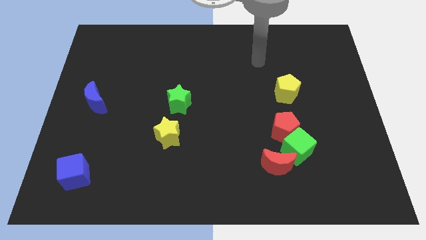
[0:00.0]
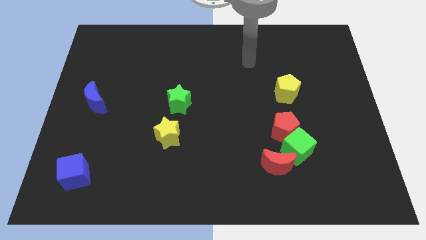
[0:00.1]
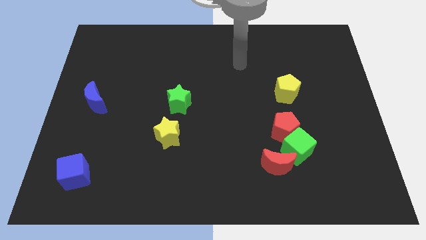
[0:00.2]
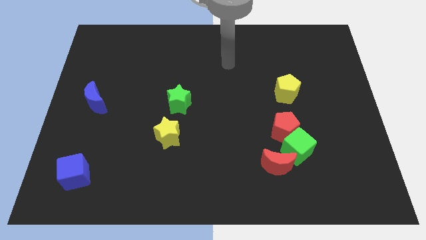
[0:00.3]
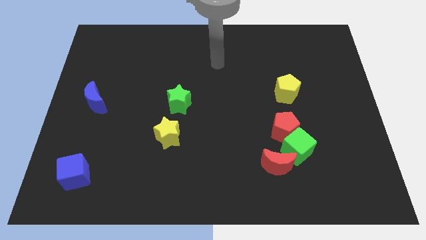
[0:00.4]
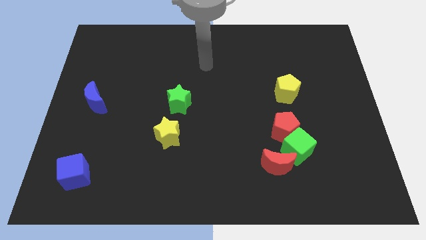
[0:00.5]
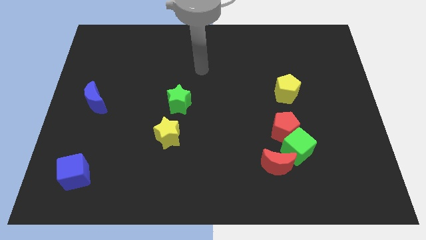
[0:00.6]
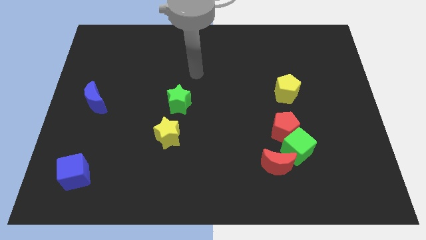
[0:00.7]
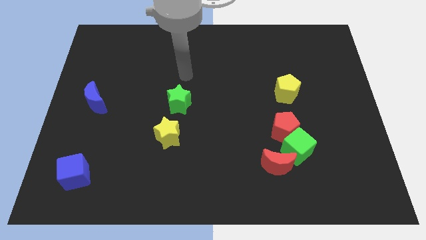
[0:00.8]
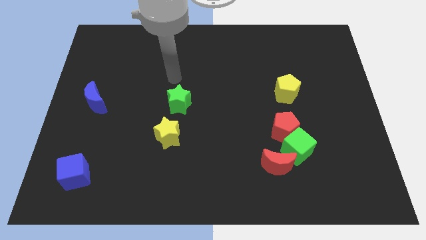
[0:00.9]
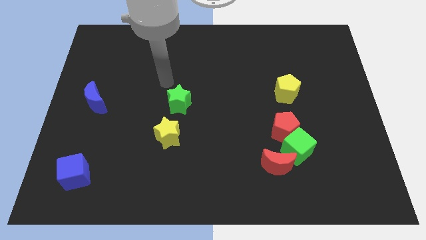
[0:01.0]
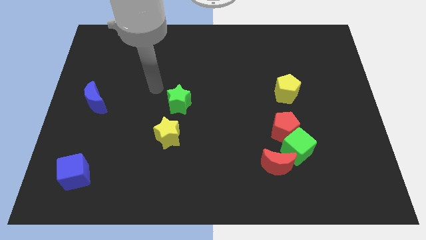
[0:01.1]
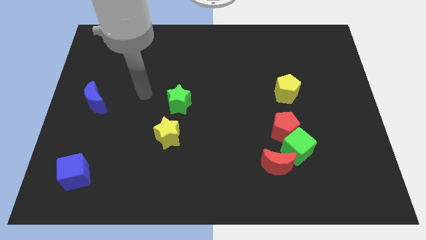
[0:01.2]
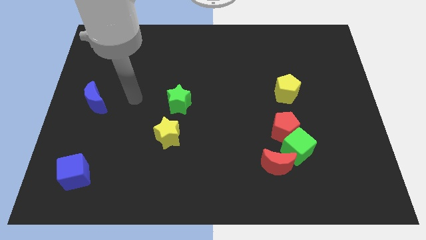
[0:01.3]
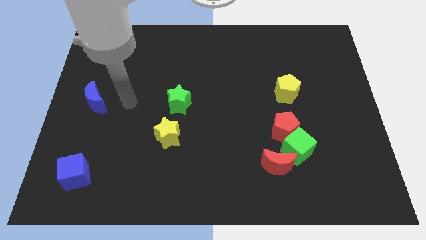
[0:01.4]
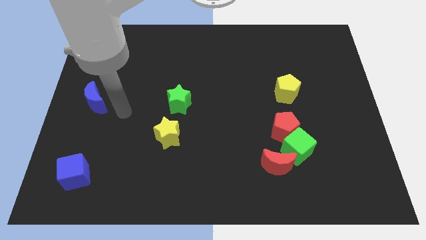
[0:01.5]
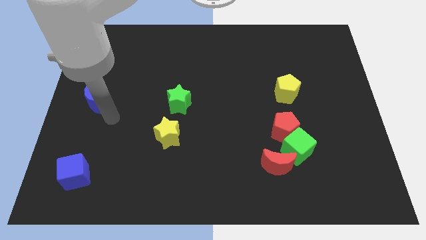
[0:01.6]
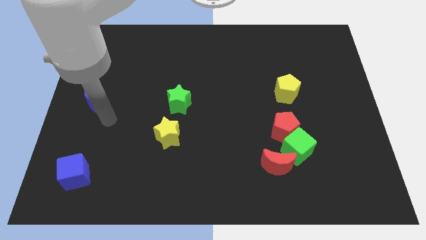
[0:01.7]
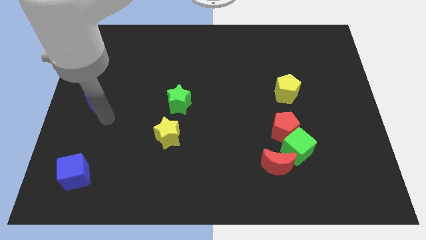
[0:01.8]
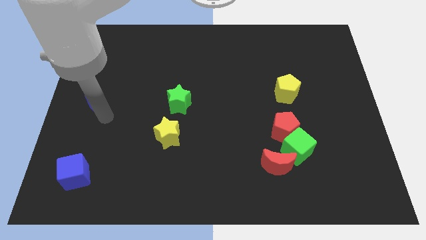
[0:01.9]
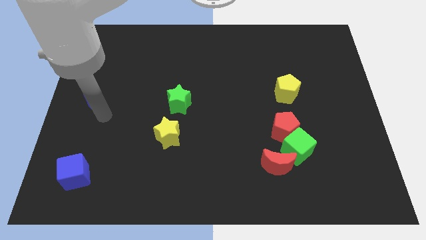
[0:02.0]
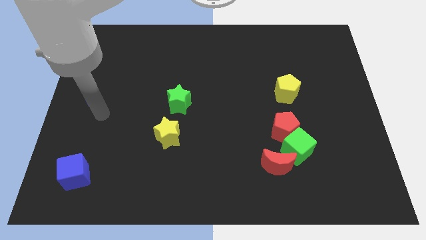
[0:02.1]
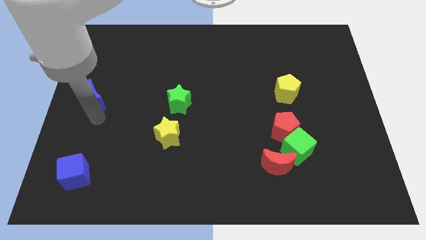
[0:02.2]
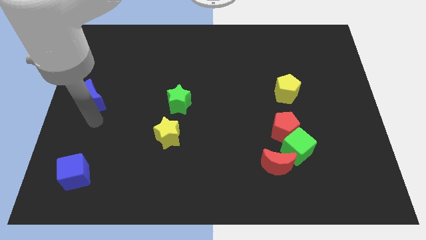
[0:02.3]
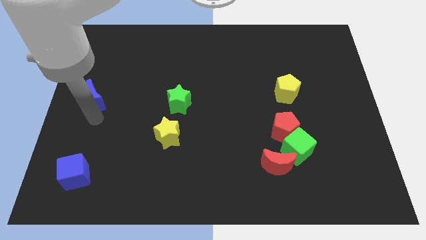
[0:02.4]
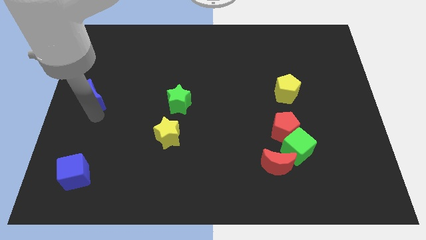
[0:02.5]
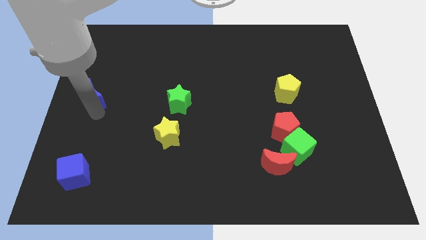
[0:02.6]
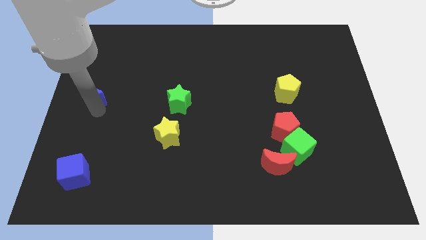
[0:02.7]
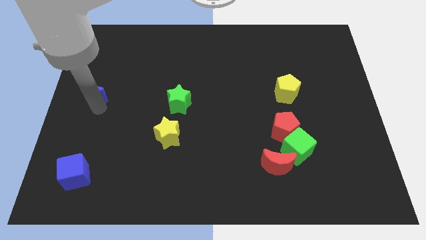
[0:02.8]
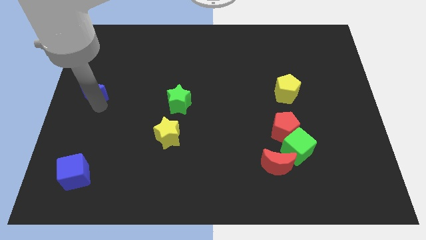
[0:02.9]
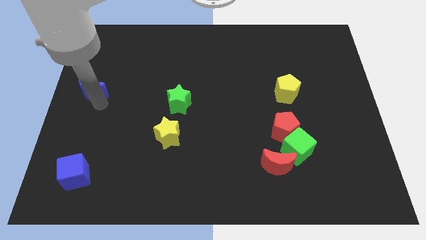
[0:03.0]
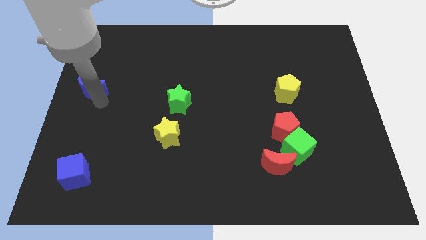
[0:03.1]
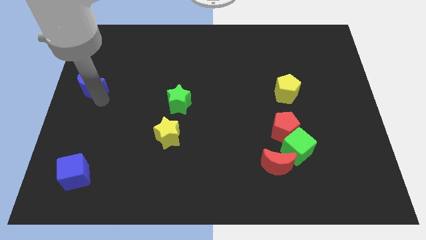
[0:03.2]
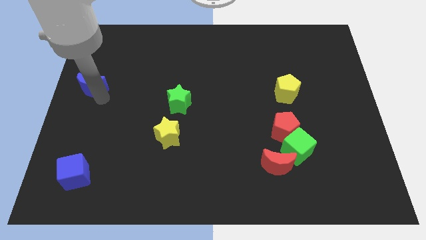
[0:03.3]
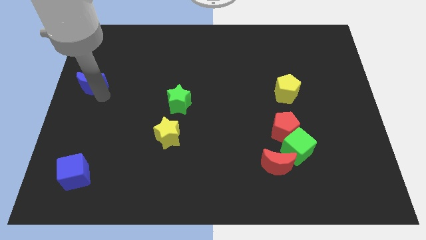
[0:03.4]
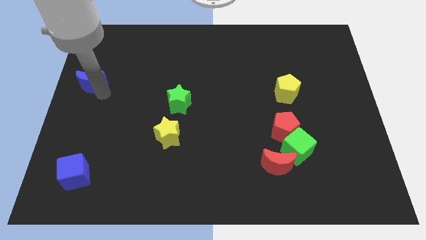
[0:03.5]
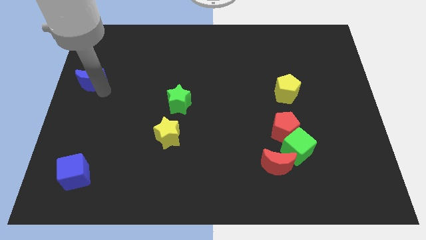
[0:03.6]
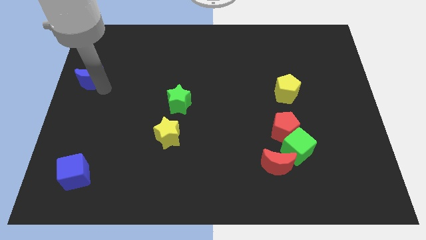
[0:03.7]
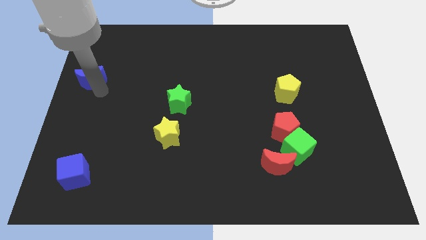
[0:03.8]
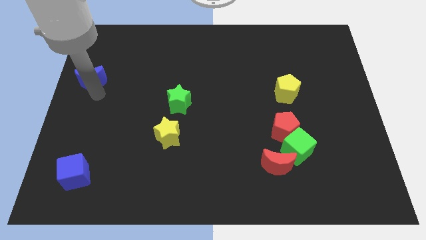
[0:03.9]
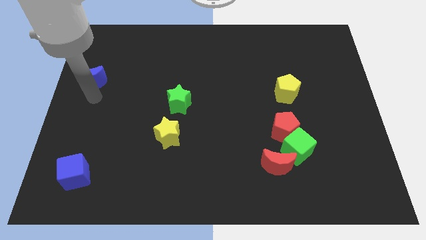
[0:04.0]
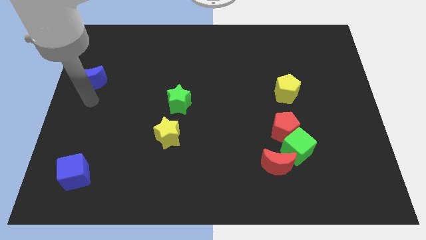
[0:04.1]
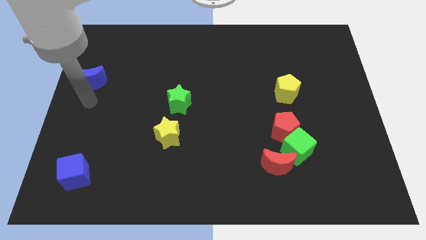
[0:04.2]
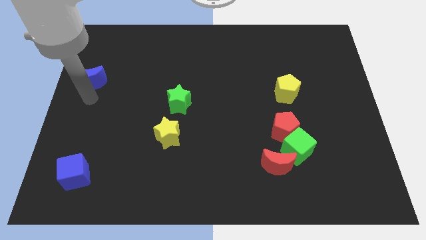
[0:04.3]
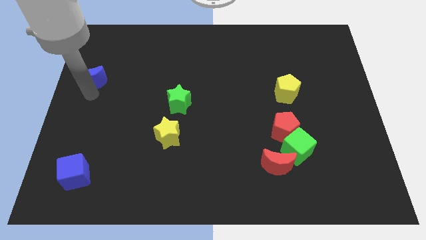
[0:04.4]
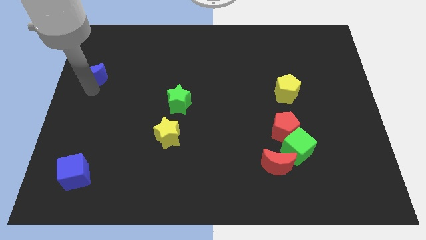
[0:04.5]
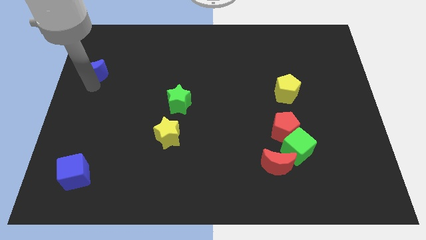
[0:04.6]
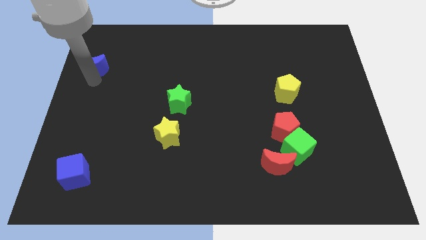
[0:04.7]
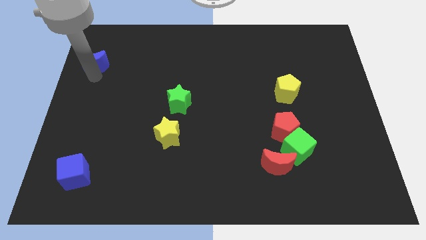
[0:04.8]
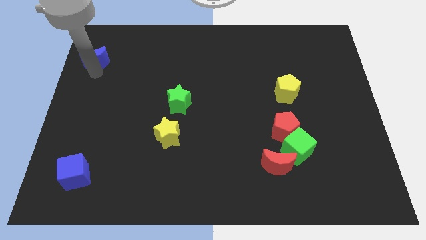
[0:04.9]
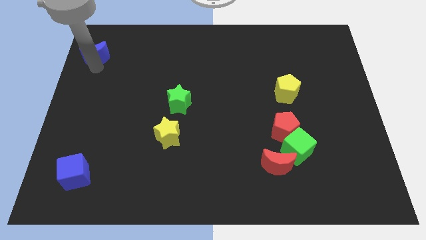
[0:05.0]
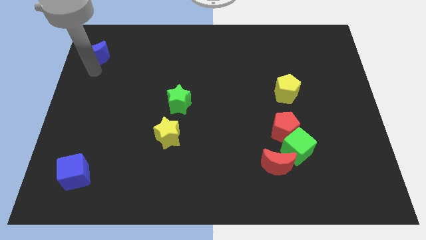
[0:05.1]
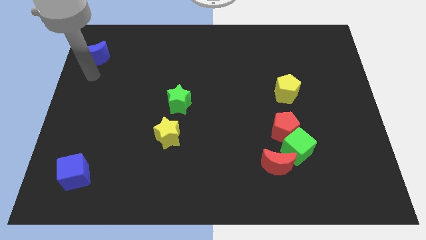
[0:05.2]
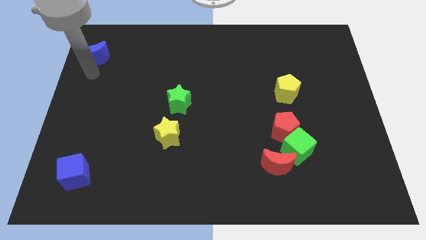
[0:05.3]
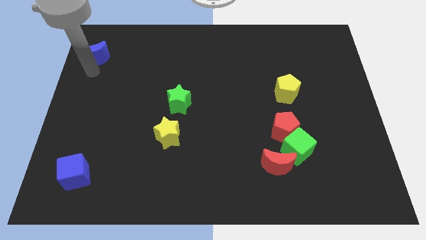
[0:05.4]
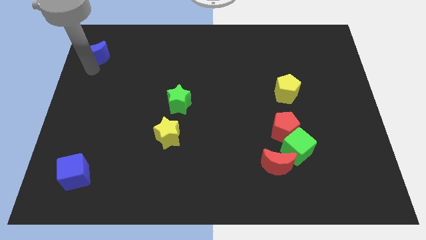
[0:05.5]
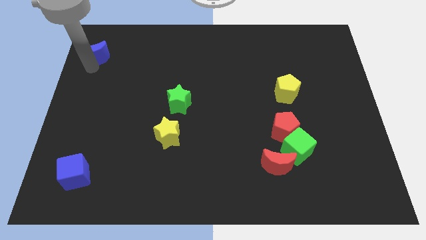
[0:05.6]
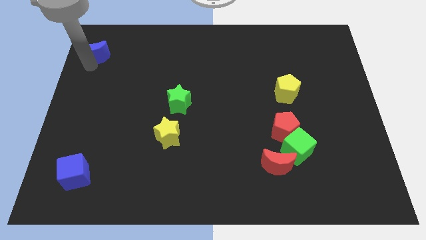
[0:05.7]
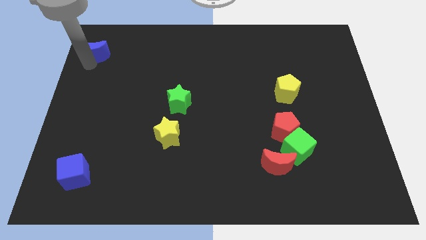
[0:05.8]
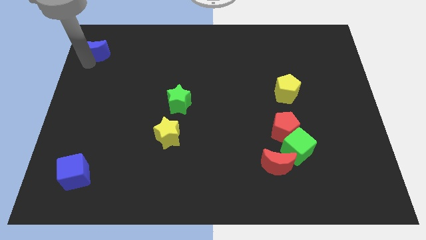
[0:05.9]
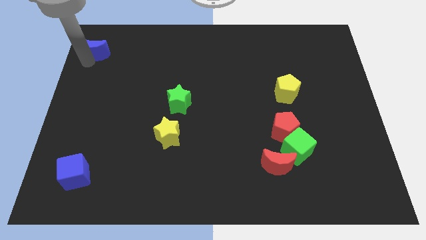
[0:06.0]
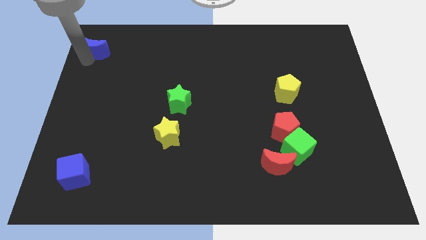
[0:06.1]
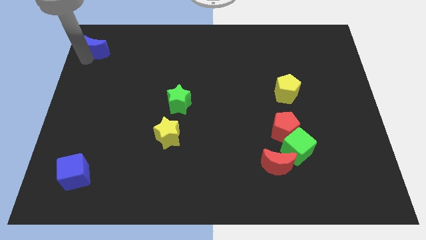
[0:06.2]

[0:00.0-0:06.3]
move the blue moon to the upper left corner
